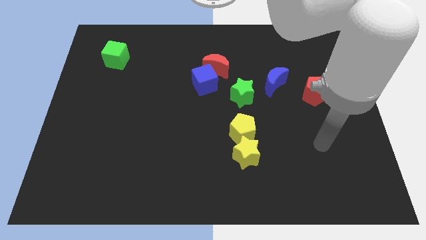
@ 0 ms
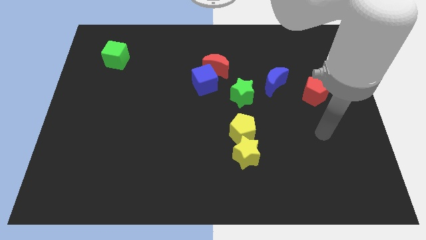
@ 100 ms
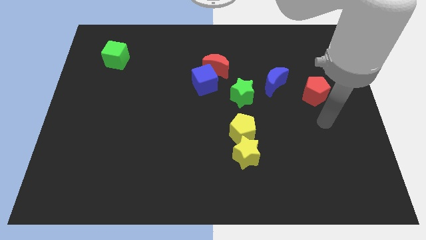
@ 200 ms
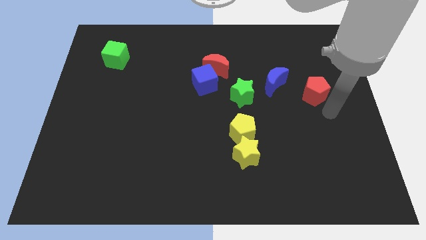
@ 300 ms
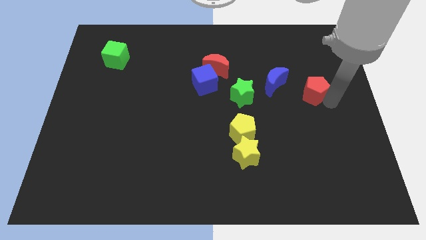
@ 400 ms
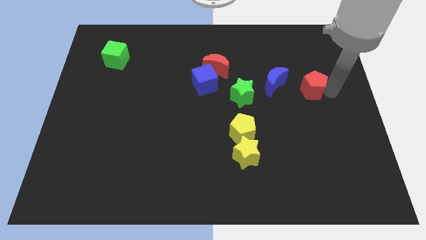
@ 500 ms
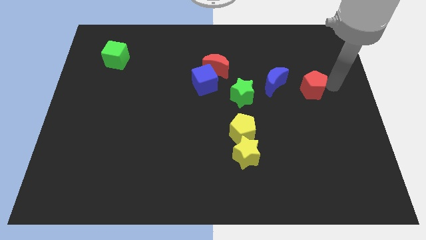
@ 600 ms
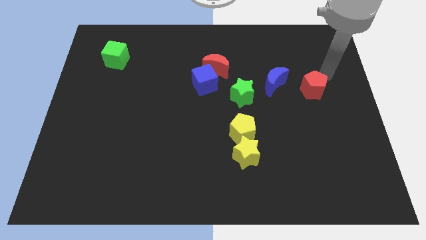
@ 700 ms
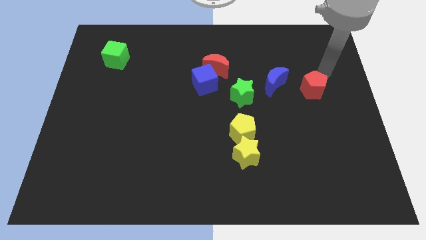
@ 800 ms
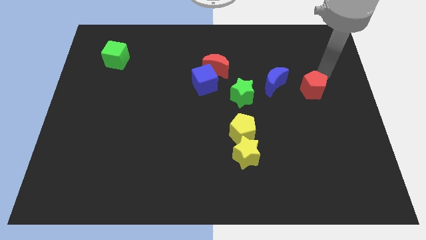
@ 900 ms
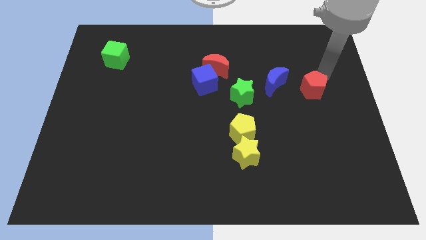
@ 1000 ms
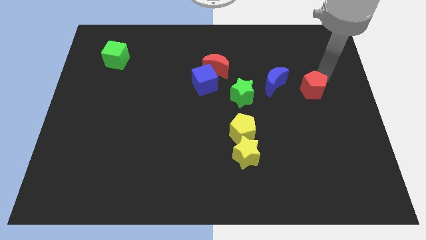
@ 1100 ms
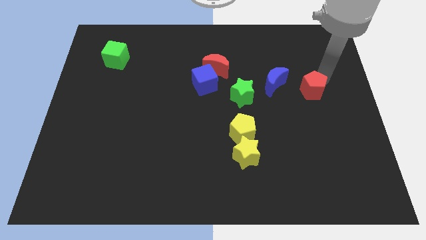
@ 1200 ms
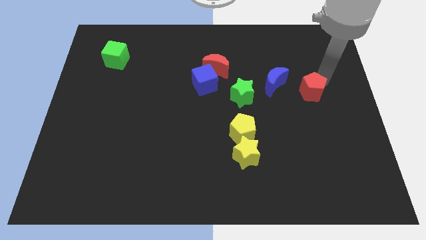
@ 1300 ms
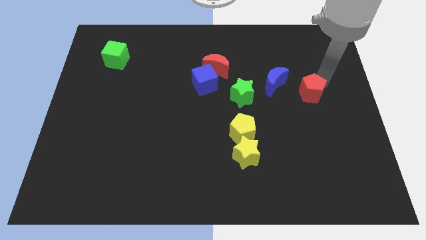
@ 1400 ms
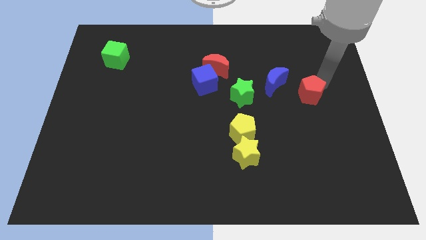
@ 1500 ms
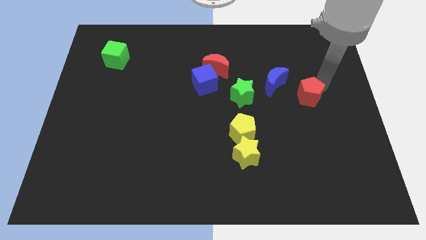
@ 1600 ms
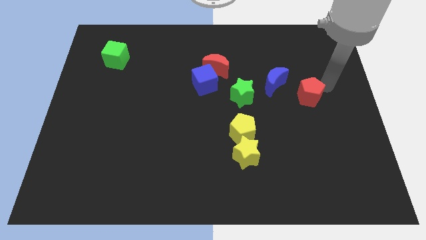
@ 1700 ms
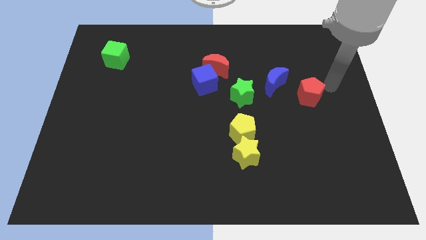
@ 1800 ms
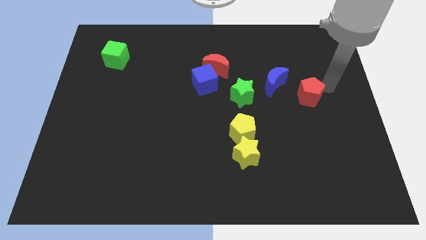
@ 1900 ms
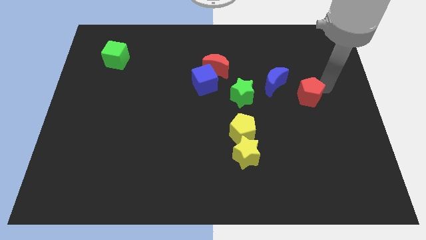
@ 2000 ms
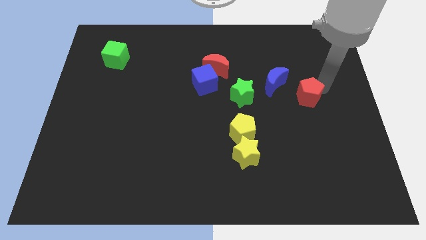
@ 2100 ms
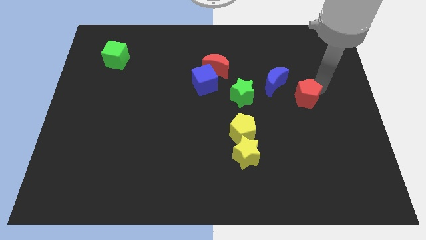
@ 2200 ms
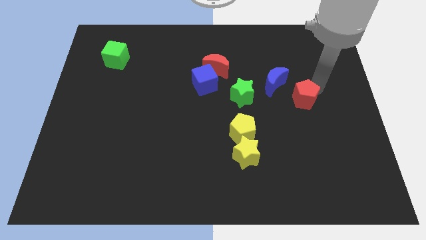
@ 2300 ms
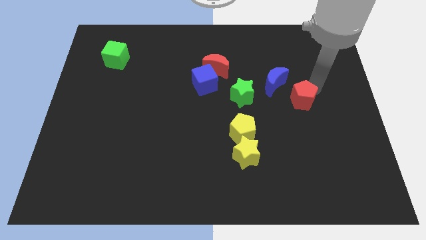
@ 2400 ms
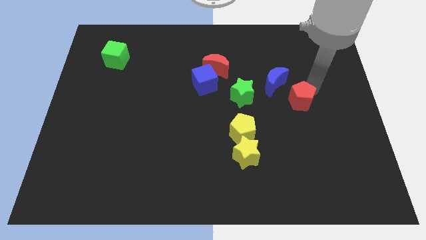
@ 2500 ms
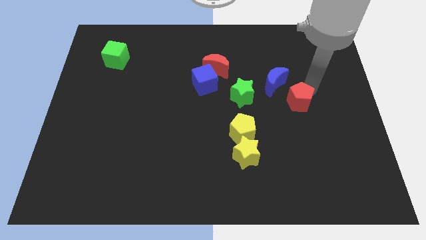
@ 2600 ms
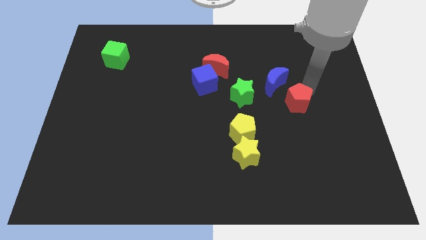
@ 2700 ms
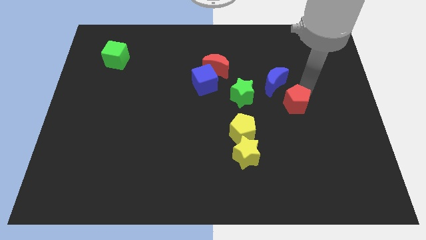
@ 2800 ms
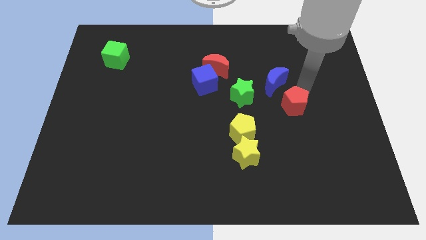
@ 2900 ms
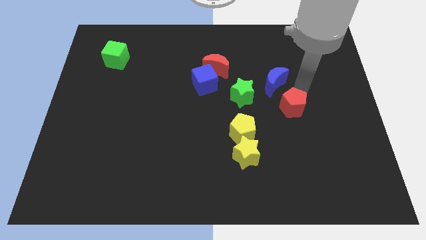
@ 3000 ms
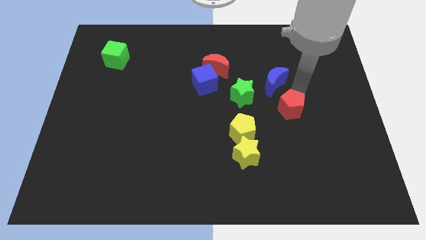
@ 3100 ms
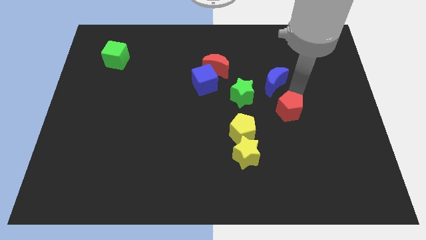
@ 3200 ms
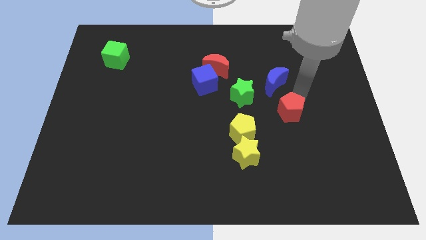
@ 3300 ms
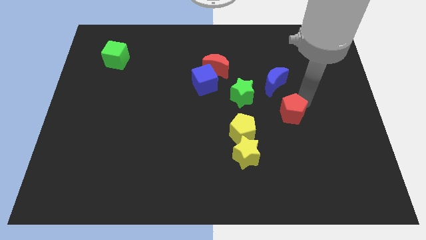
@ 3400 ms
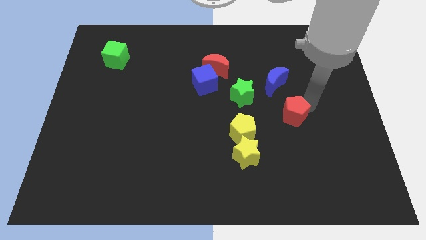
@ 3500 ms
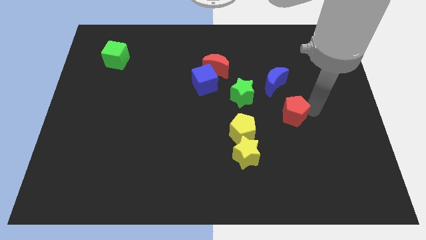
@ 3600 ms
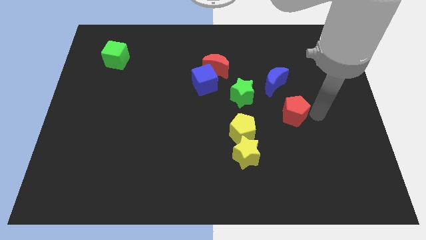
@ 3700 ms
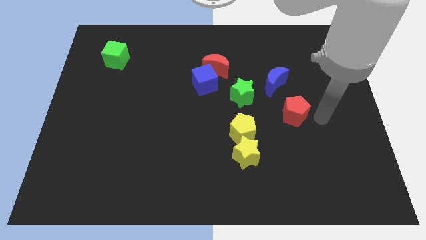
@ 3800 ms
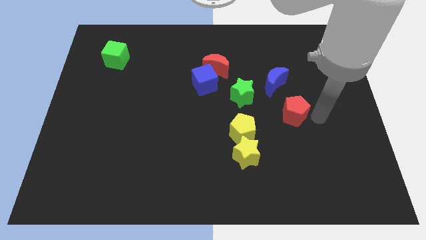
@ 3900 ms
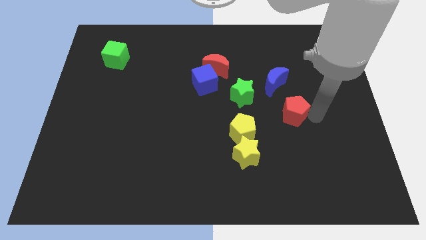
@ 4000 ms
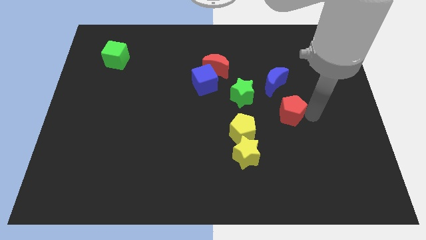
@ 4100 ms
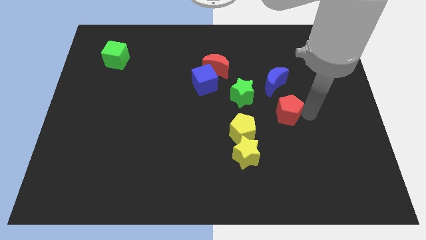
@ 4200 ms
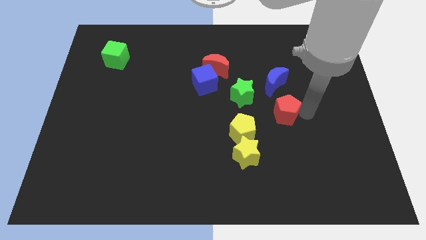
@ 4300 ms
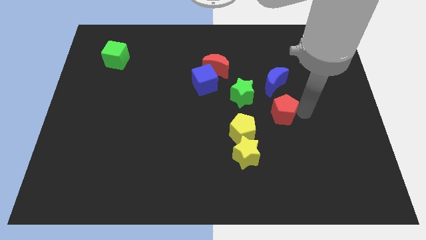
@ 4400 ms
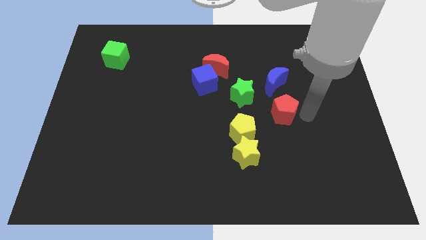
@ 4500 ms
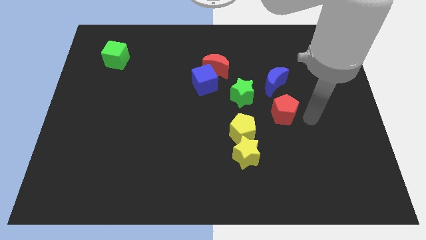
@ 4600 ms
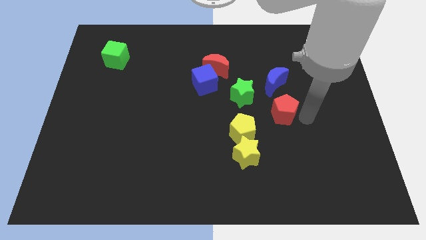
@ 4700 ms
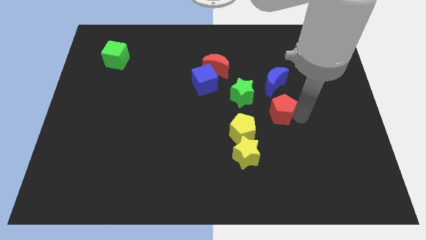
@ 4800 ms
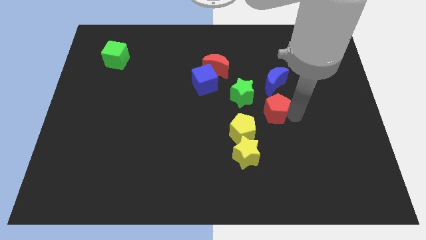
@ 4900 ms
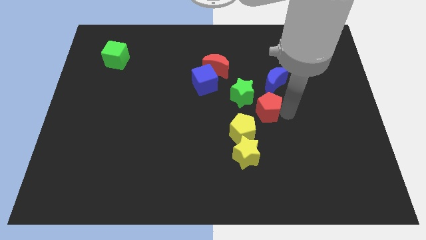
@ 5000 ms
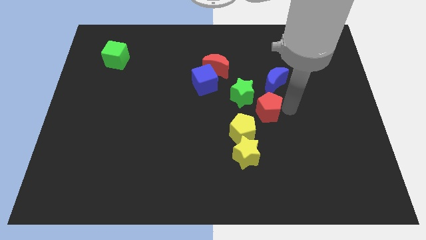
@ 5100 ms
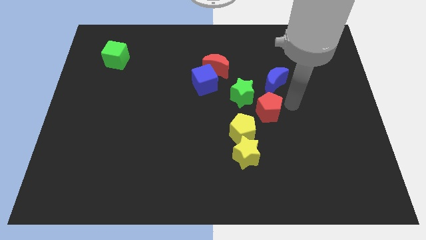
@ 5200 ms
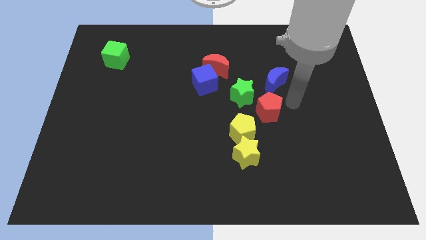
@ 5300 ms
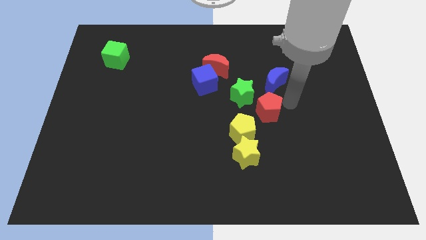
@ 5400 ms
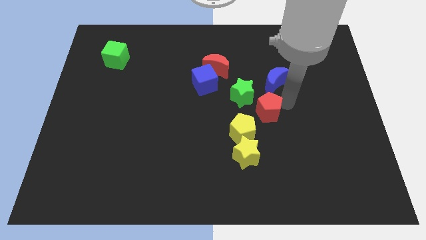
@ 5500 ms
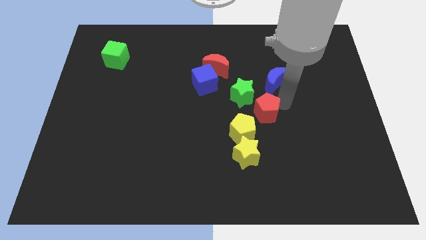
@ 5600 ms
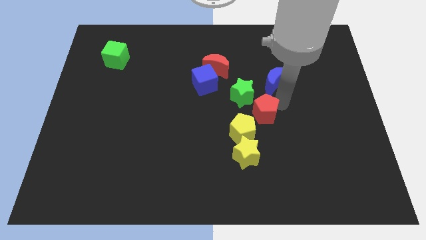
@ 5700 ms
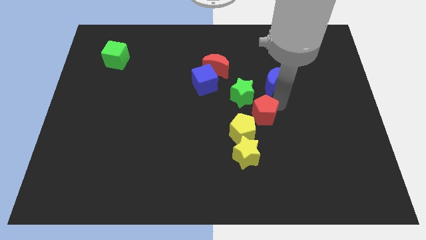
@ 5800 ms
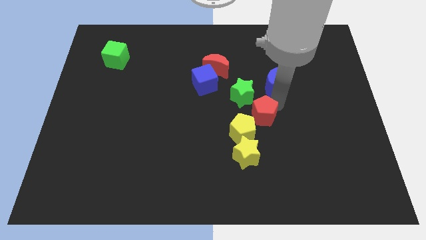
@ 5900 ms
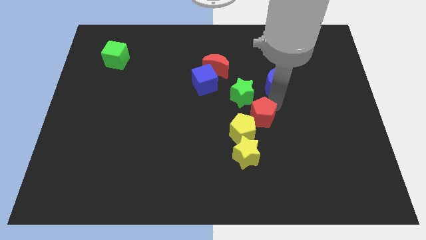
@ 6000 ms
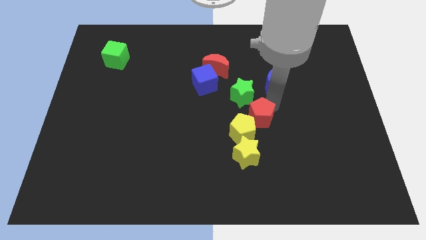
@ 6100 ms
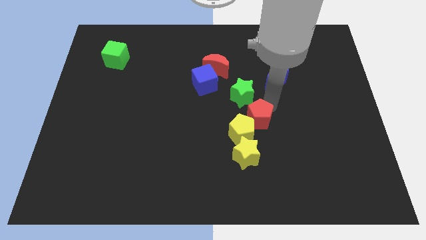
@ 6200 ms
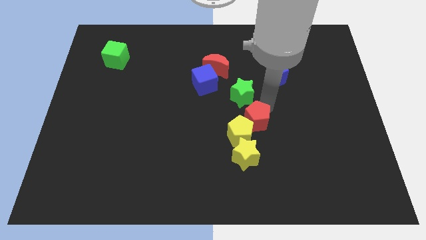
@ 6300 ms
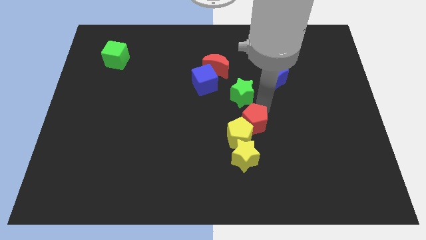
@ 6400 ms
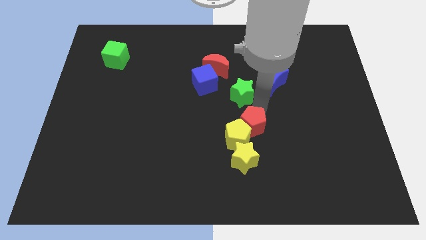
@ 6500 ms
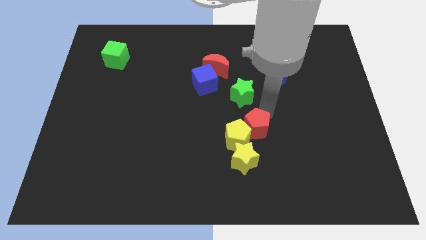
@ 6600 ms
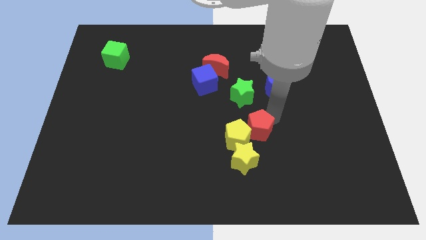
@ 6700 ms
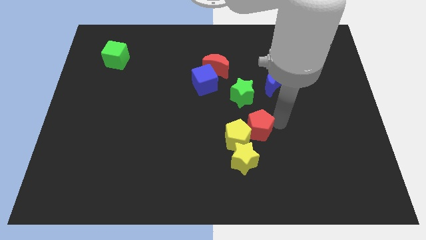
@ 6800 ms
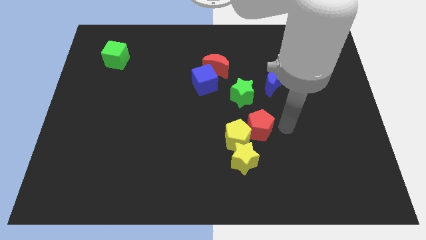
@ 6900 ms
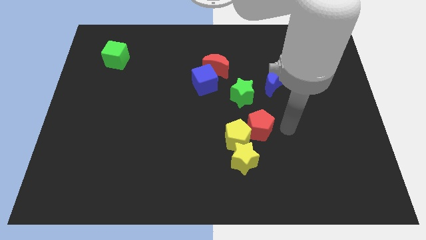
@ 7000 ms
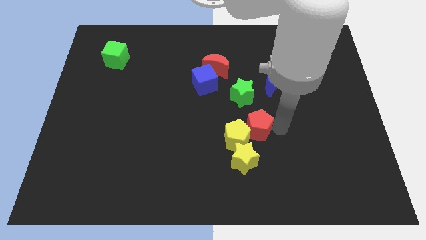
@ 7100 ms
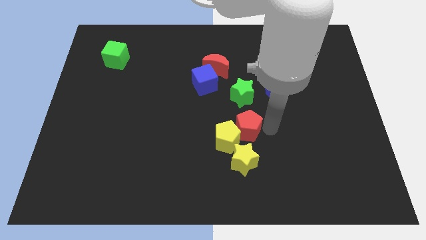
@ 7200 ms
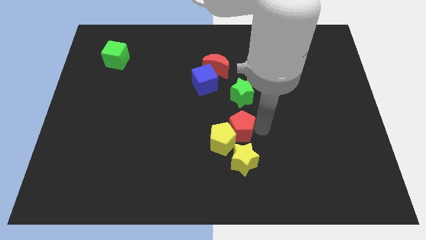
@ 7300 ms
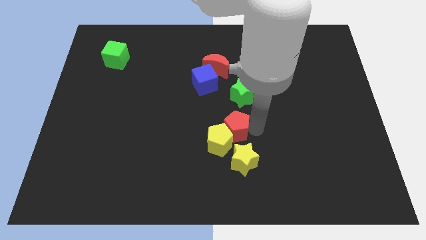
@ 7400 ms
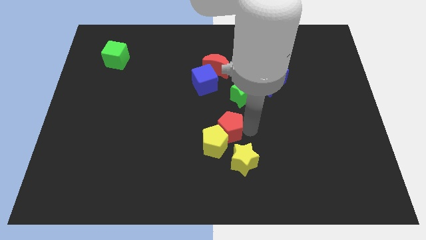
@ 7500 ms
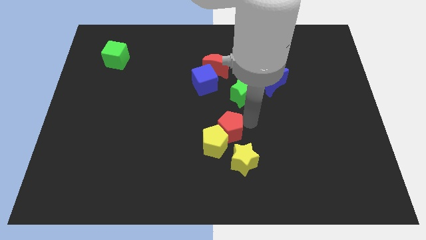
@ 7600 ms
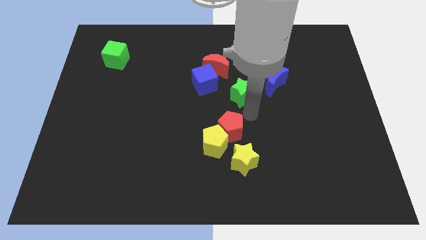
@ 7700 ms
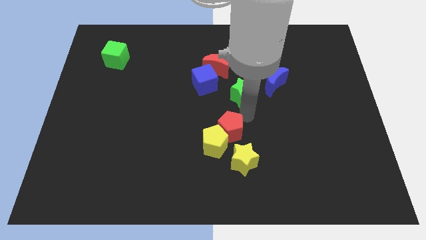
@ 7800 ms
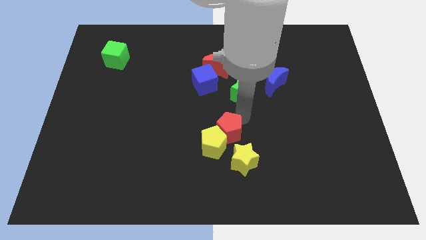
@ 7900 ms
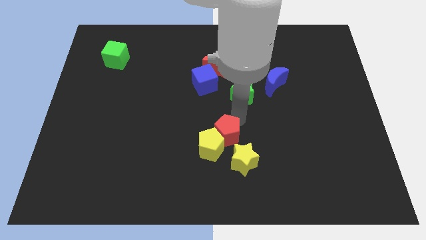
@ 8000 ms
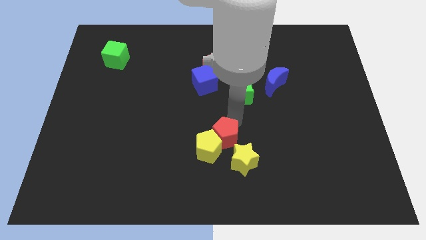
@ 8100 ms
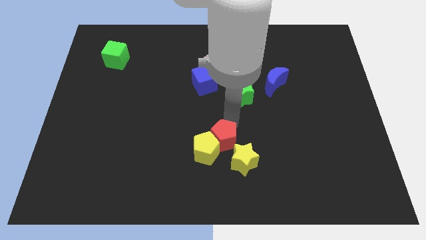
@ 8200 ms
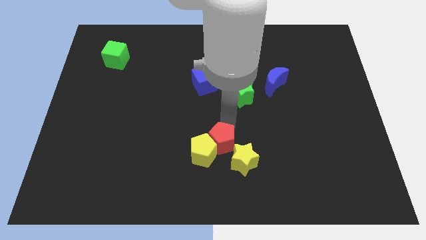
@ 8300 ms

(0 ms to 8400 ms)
slide the red pentagon to the left side of the yellow star
